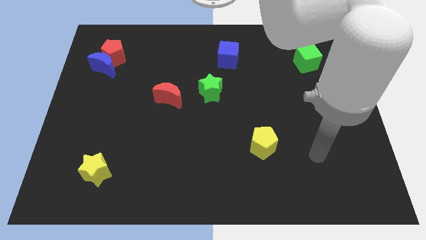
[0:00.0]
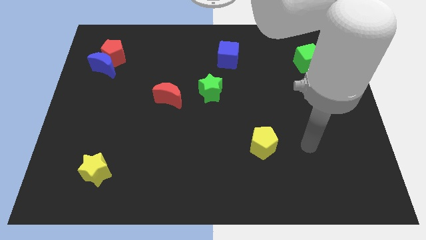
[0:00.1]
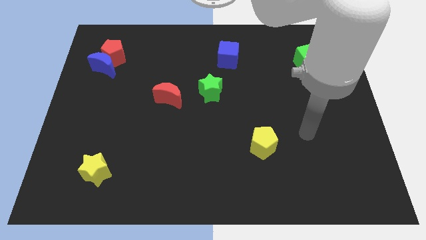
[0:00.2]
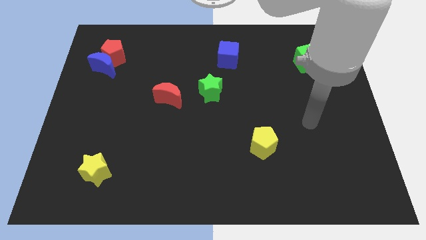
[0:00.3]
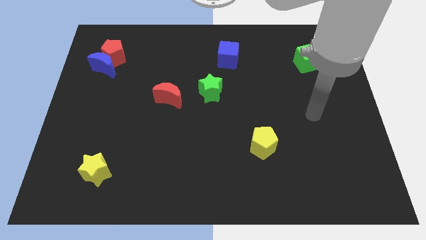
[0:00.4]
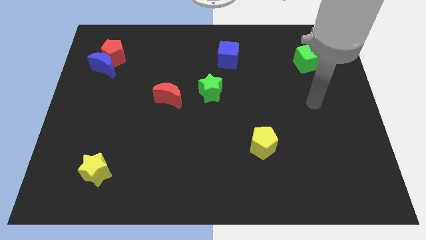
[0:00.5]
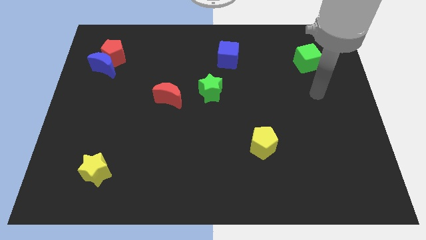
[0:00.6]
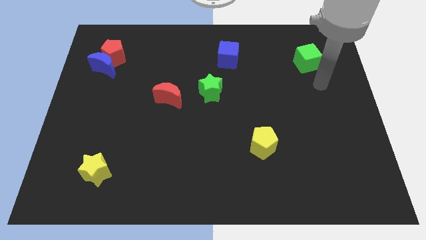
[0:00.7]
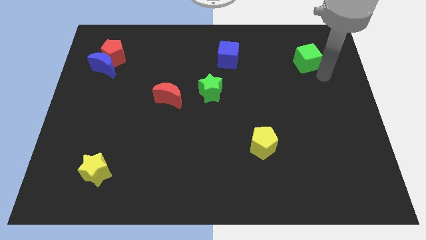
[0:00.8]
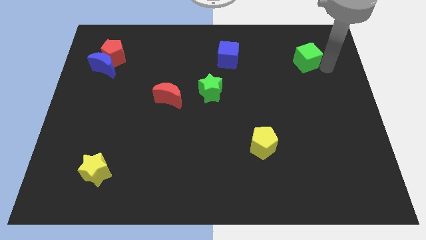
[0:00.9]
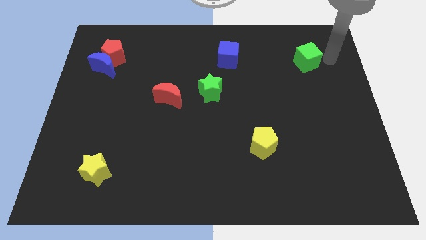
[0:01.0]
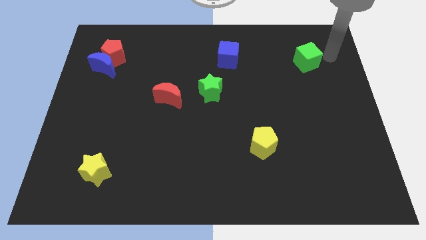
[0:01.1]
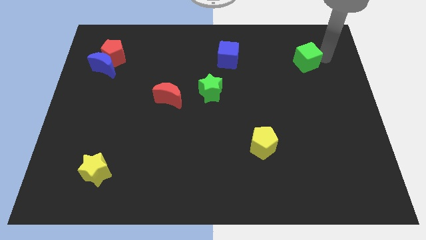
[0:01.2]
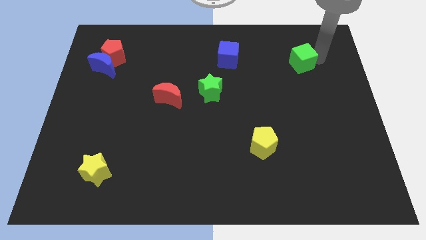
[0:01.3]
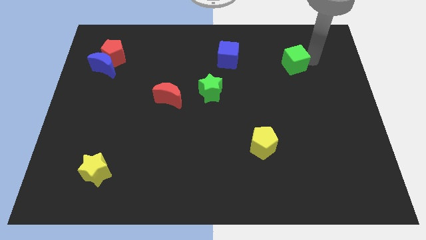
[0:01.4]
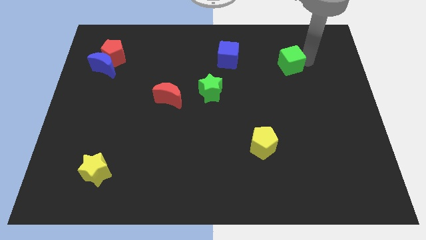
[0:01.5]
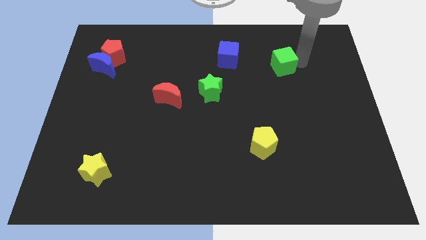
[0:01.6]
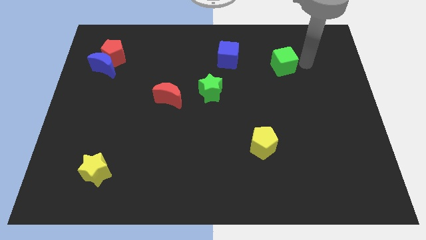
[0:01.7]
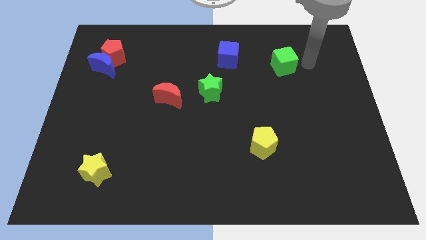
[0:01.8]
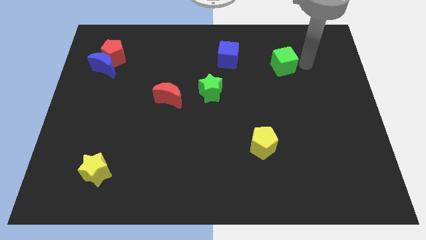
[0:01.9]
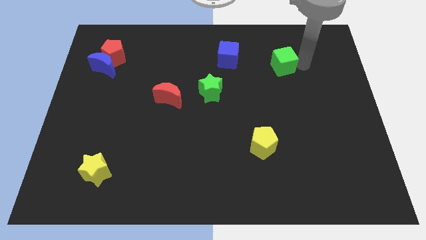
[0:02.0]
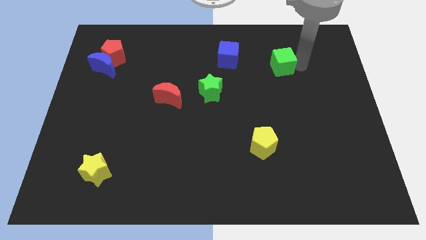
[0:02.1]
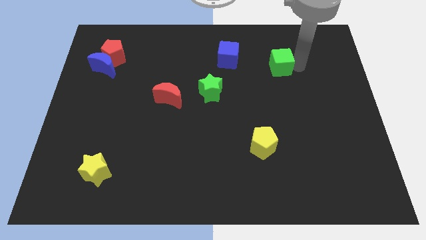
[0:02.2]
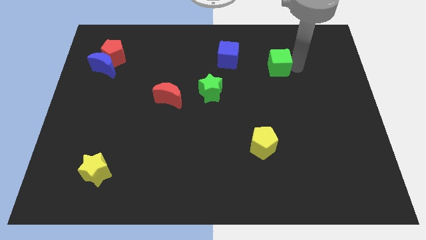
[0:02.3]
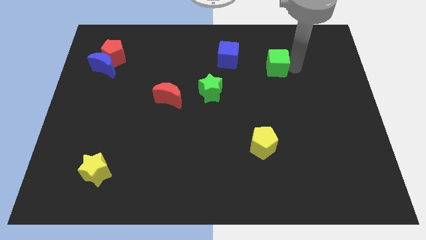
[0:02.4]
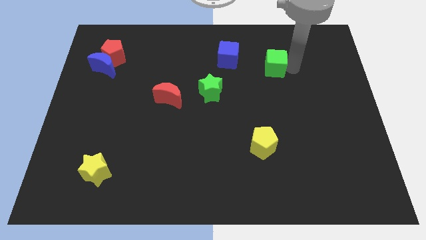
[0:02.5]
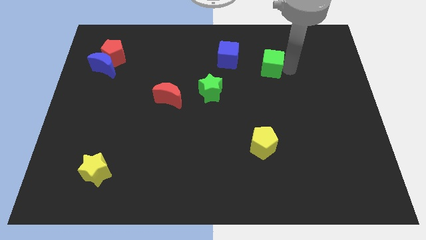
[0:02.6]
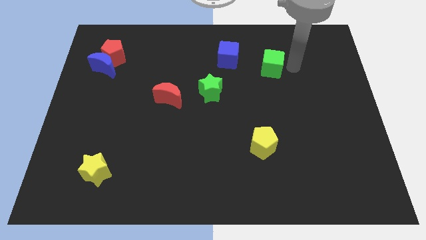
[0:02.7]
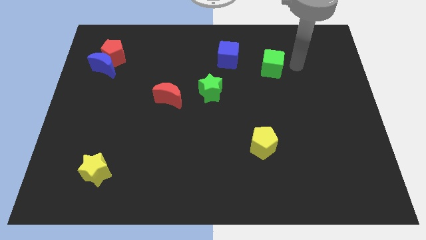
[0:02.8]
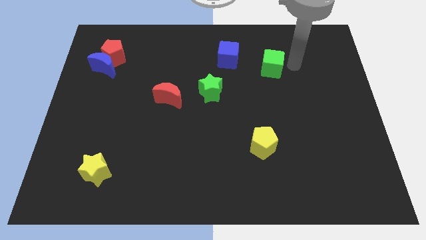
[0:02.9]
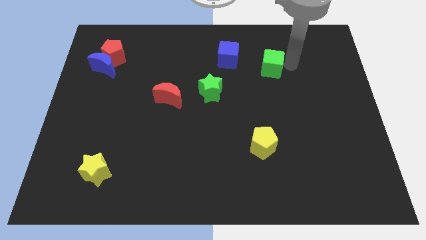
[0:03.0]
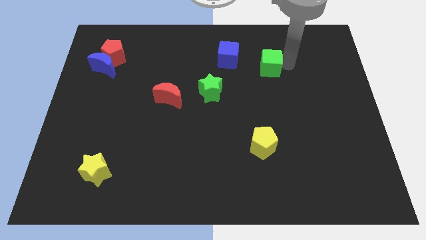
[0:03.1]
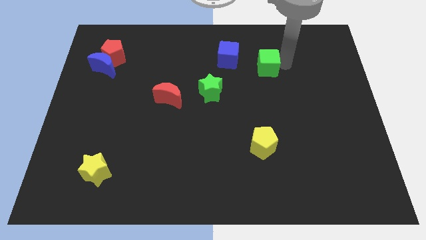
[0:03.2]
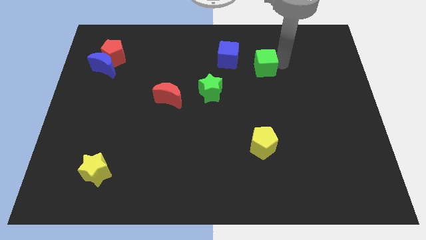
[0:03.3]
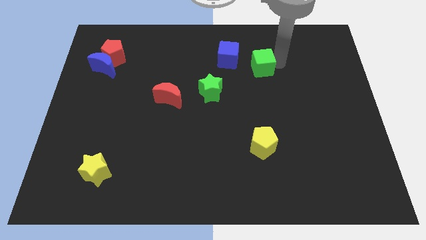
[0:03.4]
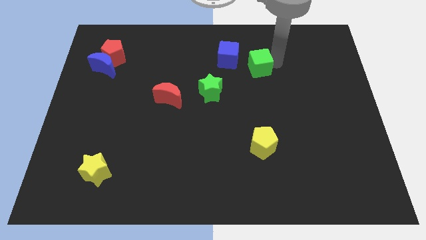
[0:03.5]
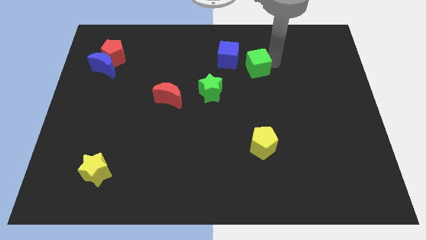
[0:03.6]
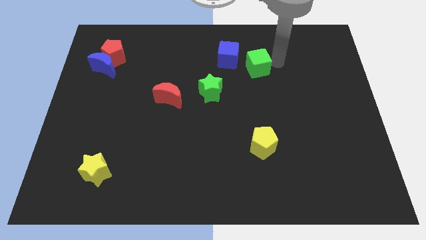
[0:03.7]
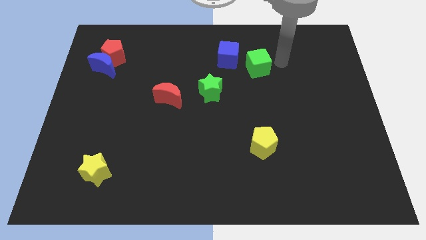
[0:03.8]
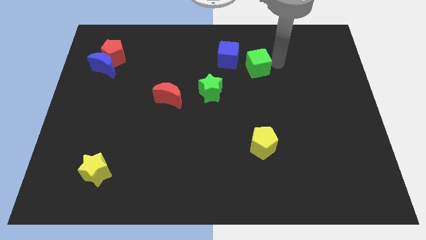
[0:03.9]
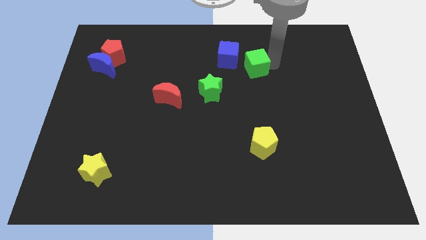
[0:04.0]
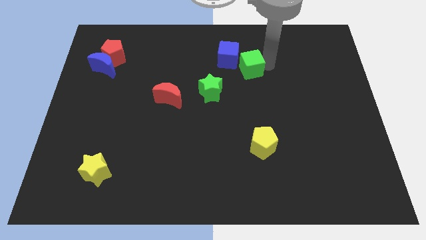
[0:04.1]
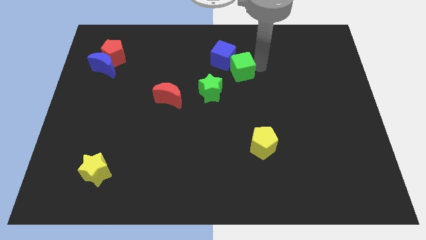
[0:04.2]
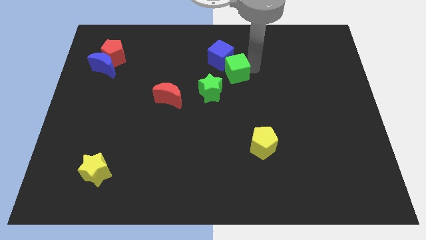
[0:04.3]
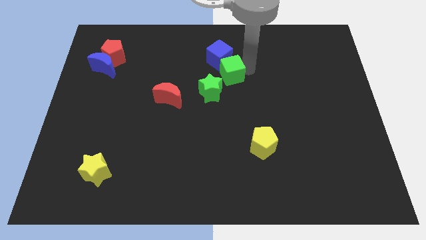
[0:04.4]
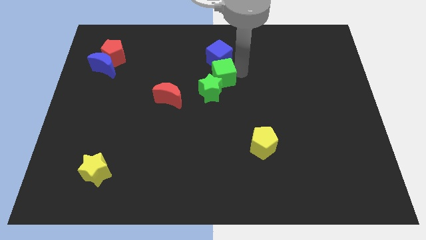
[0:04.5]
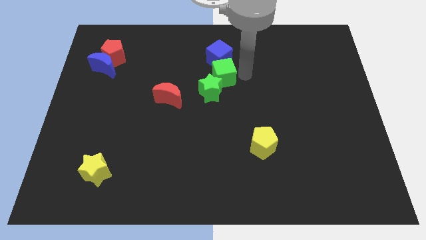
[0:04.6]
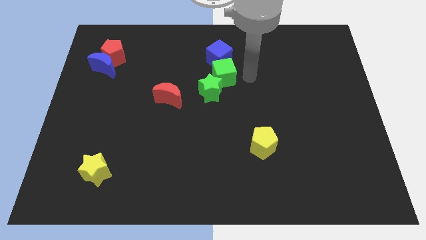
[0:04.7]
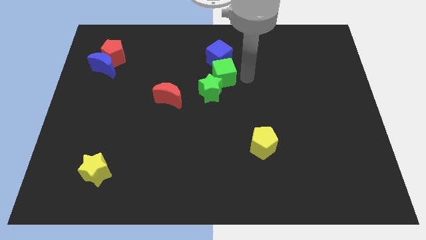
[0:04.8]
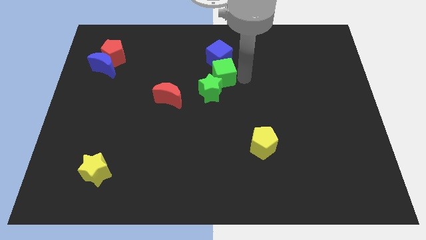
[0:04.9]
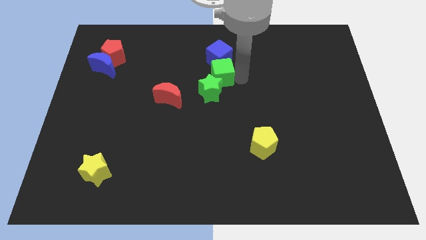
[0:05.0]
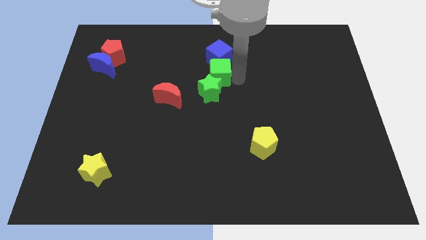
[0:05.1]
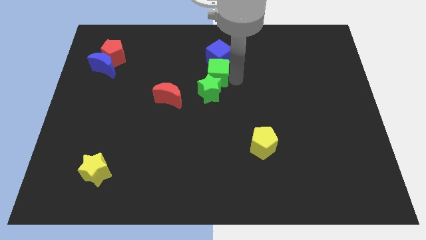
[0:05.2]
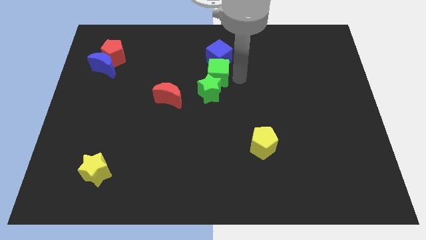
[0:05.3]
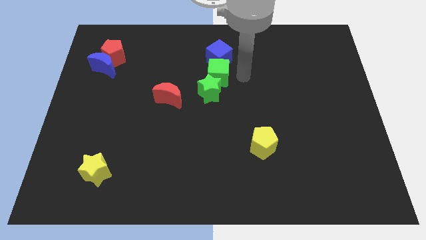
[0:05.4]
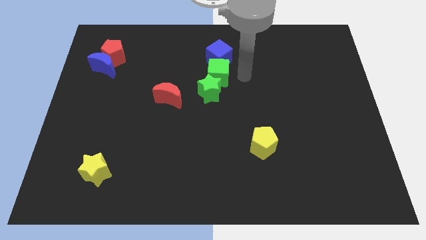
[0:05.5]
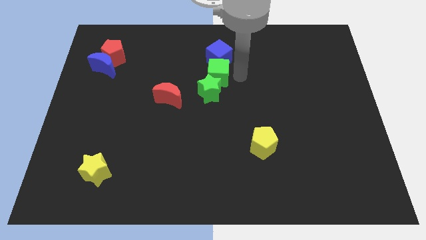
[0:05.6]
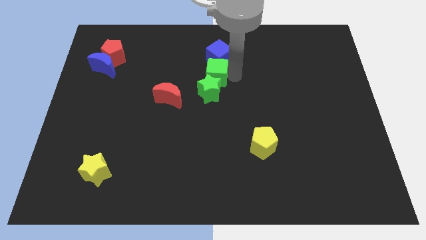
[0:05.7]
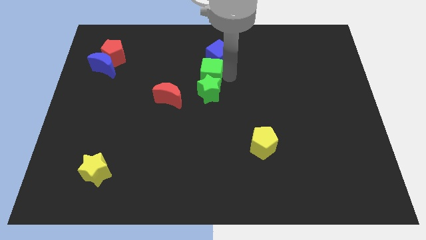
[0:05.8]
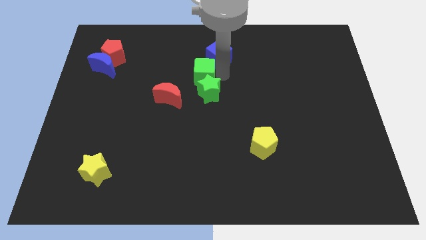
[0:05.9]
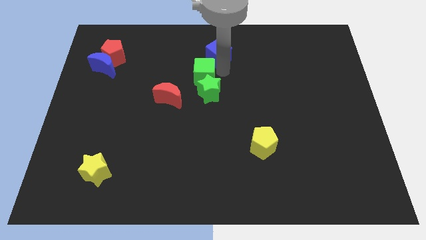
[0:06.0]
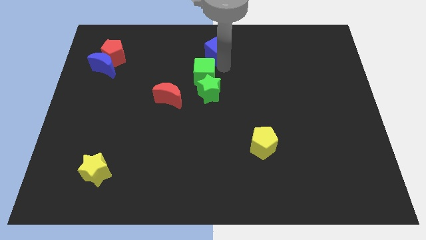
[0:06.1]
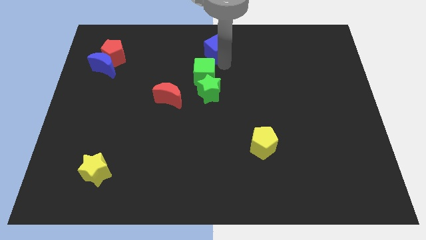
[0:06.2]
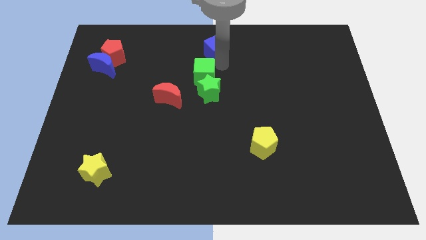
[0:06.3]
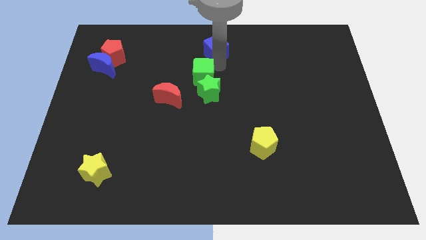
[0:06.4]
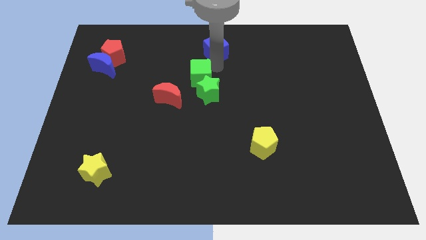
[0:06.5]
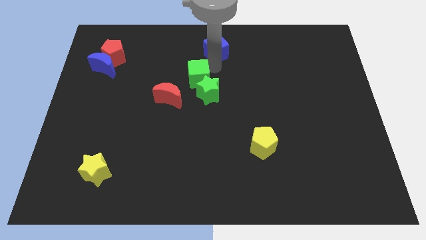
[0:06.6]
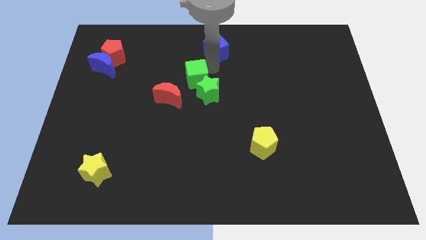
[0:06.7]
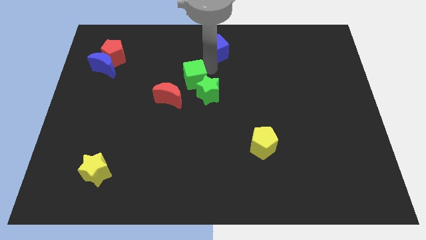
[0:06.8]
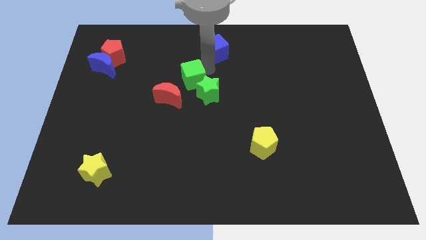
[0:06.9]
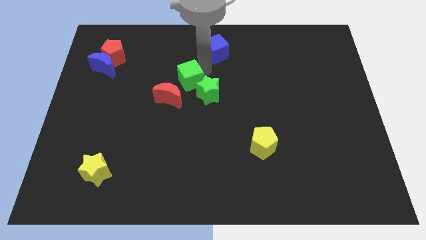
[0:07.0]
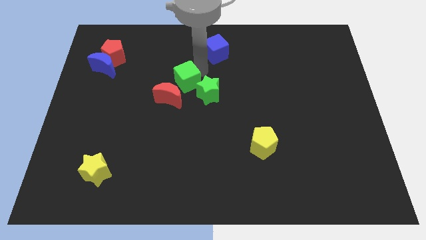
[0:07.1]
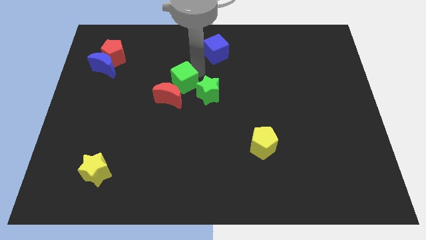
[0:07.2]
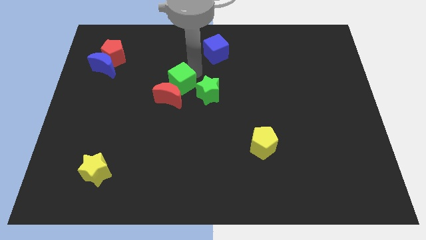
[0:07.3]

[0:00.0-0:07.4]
put the green cube towards the red moon

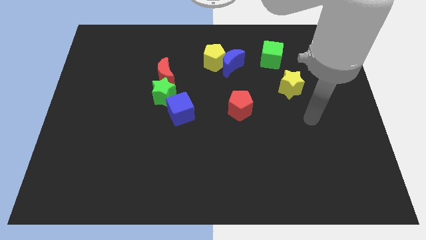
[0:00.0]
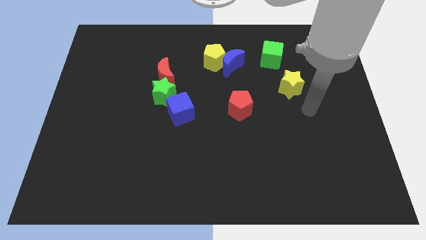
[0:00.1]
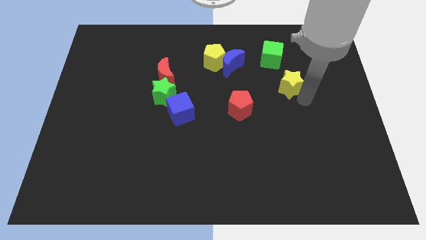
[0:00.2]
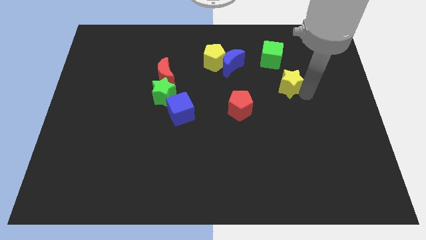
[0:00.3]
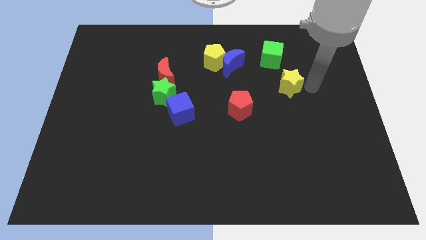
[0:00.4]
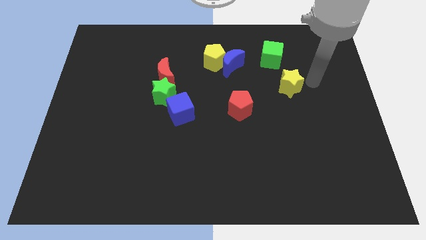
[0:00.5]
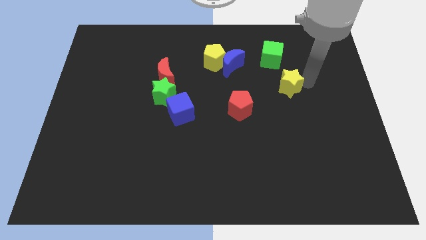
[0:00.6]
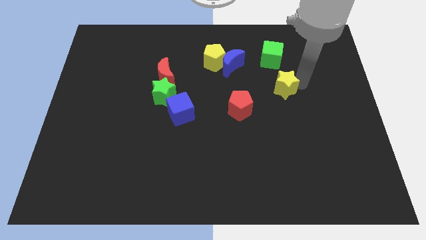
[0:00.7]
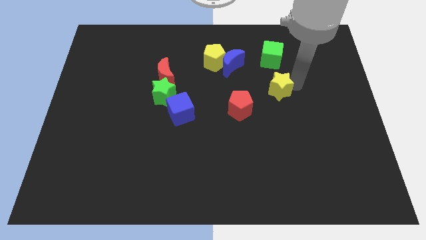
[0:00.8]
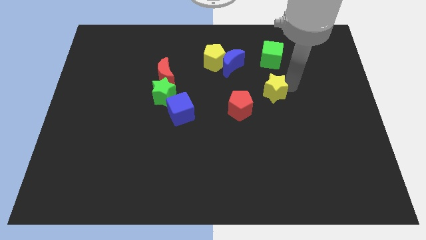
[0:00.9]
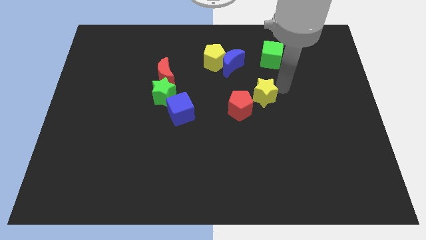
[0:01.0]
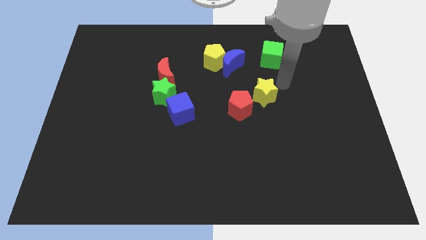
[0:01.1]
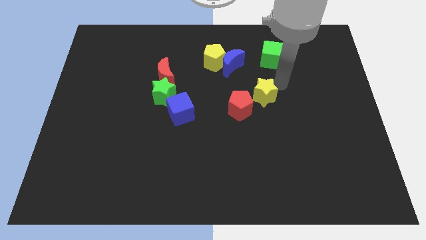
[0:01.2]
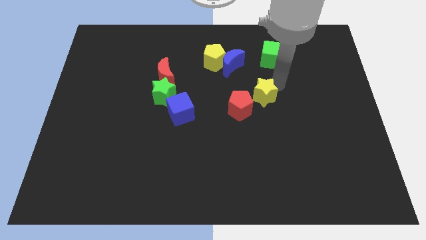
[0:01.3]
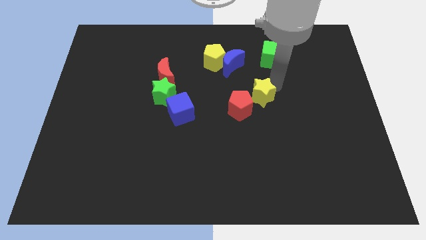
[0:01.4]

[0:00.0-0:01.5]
move the yellow star towards the red pentagon
